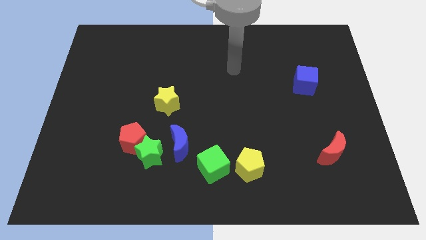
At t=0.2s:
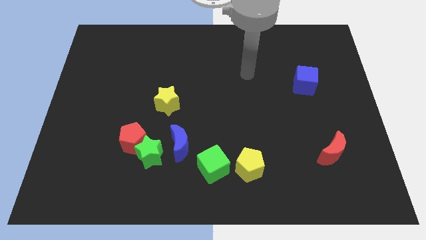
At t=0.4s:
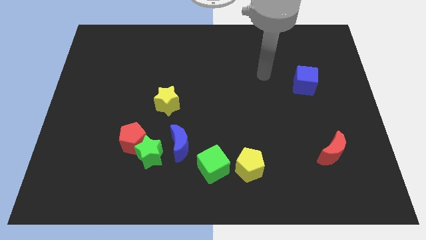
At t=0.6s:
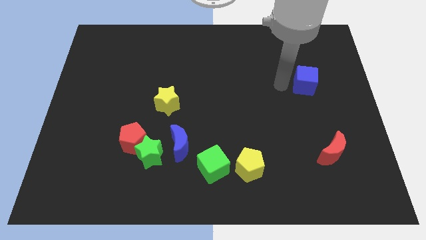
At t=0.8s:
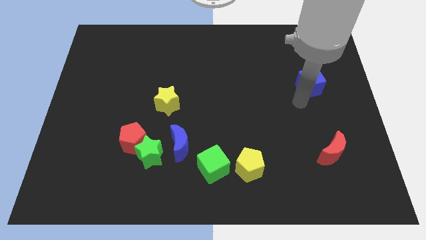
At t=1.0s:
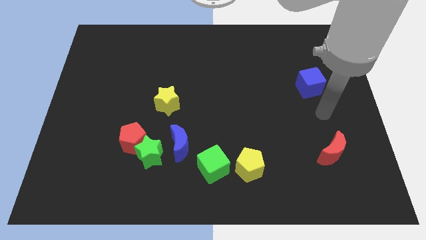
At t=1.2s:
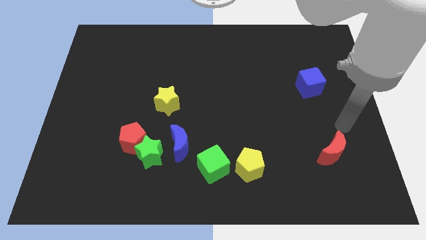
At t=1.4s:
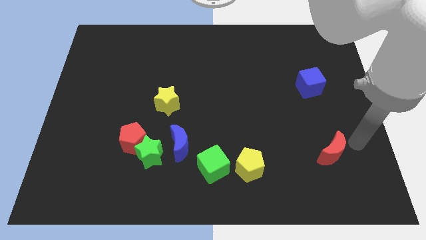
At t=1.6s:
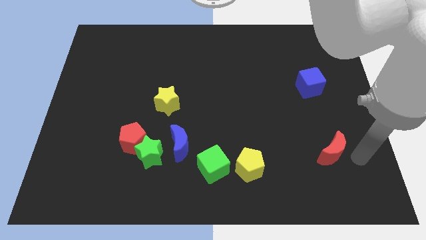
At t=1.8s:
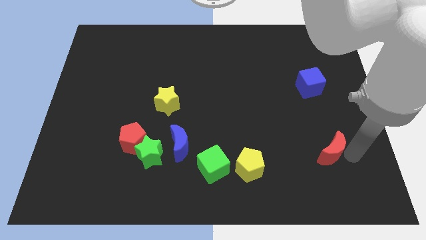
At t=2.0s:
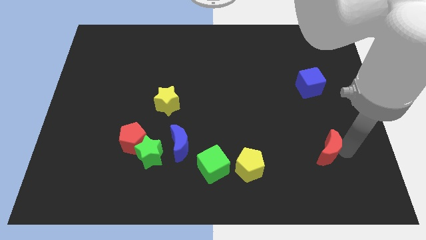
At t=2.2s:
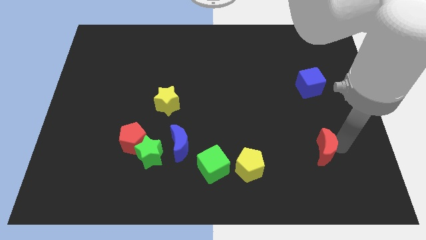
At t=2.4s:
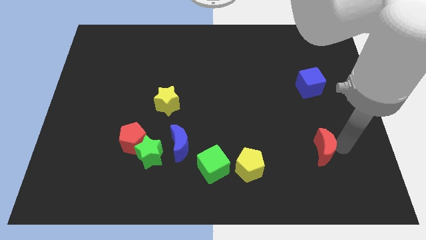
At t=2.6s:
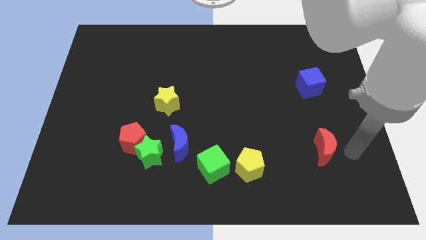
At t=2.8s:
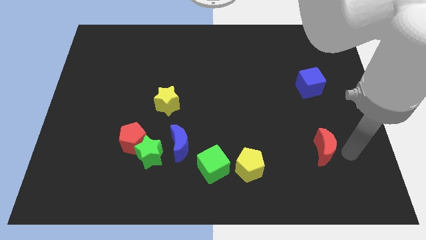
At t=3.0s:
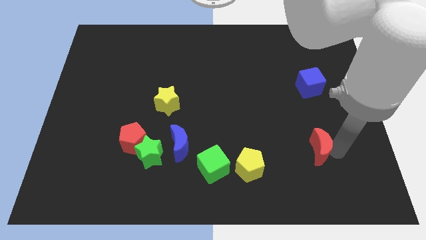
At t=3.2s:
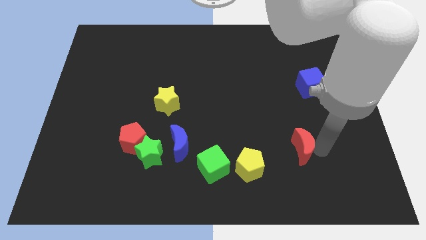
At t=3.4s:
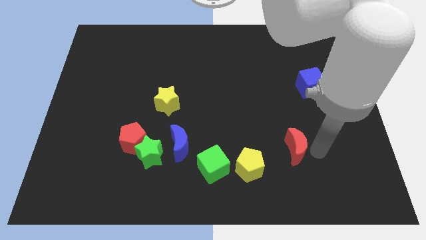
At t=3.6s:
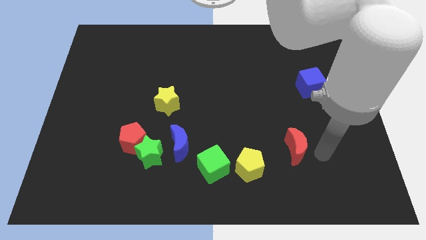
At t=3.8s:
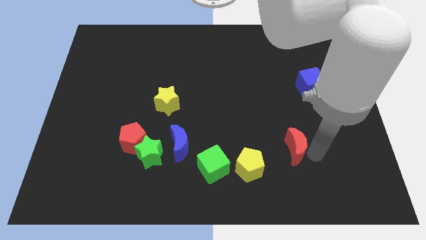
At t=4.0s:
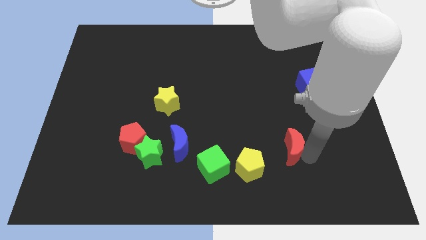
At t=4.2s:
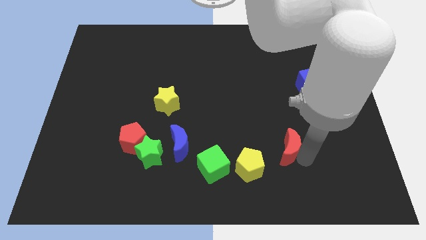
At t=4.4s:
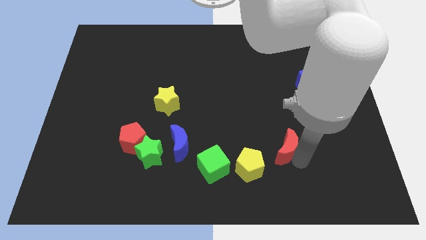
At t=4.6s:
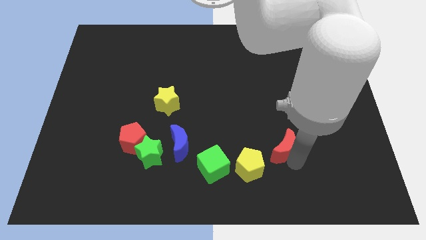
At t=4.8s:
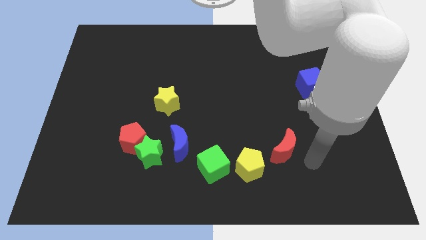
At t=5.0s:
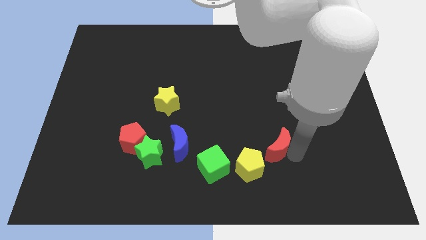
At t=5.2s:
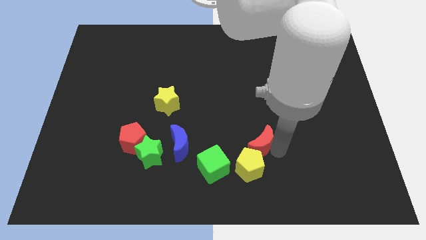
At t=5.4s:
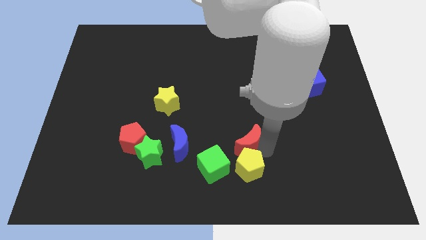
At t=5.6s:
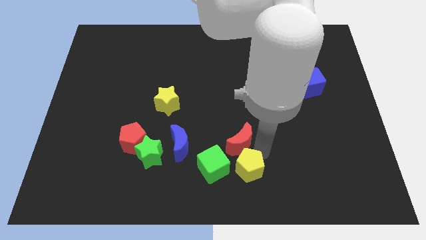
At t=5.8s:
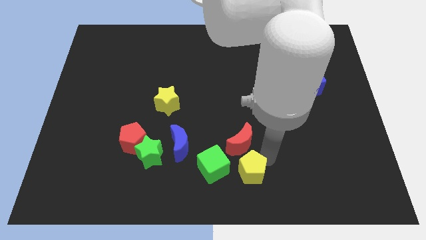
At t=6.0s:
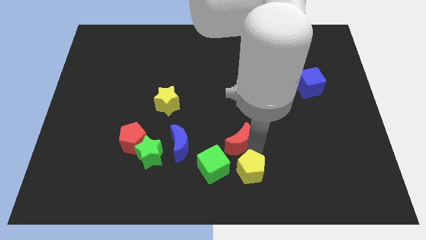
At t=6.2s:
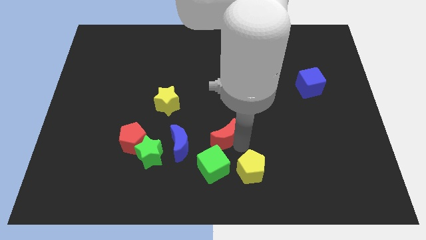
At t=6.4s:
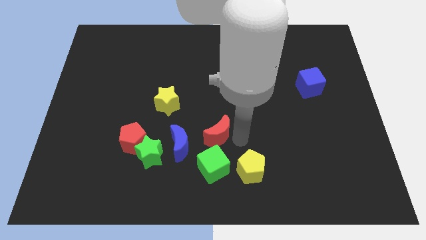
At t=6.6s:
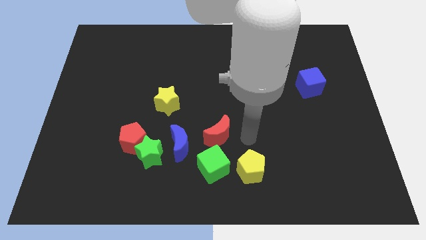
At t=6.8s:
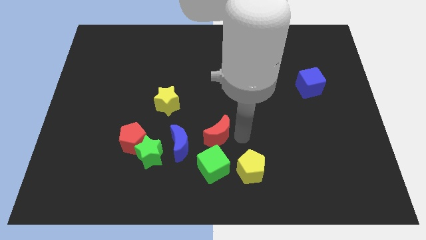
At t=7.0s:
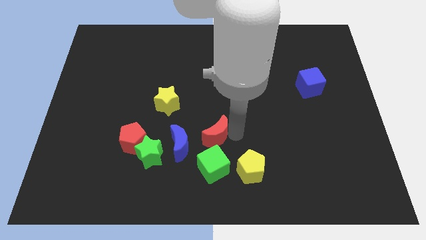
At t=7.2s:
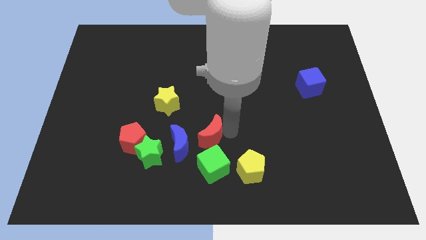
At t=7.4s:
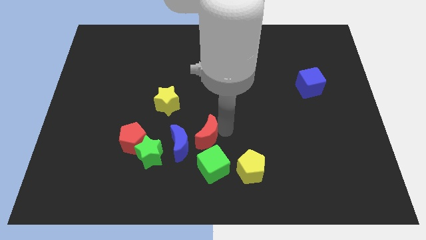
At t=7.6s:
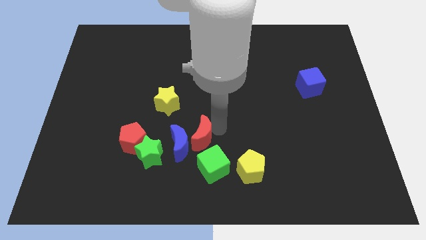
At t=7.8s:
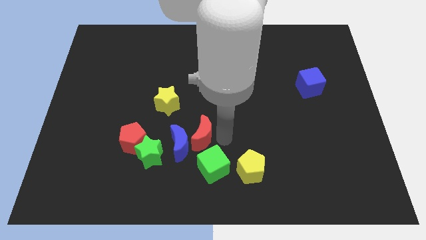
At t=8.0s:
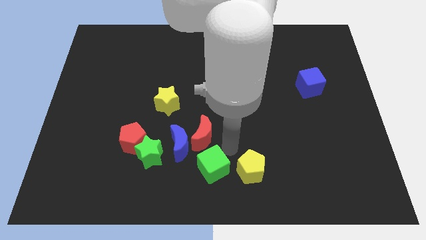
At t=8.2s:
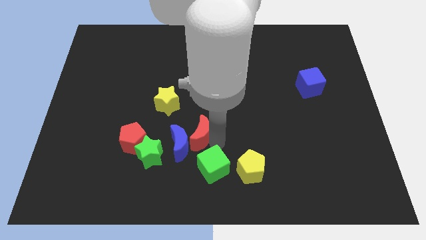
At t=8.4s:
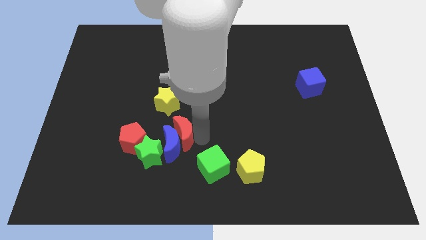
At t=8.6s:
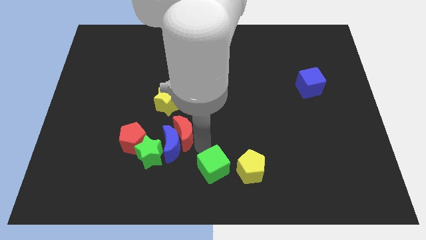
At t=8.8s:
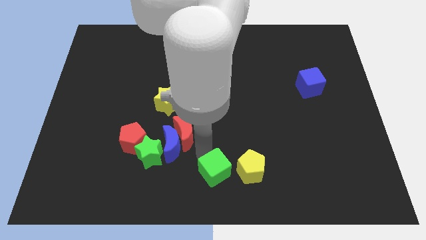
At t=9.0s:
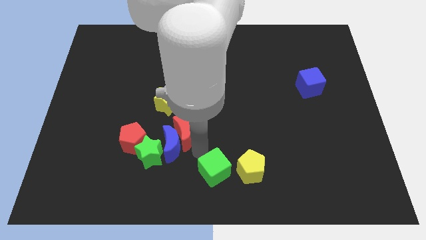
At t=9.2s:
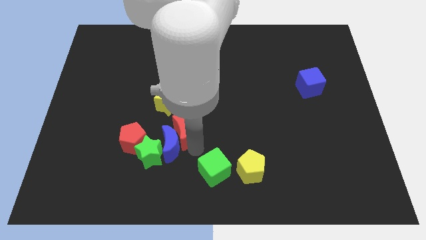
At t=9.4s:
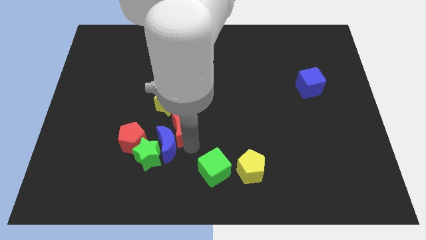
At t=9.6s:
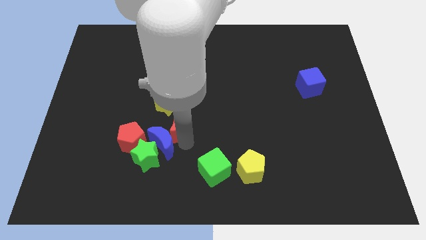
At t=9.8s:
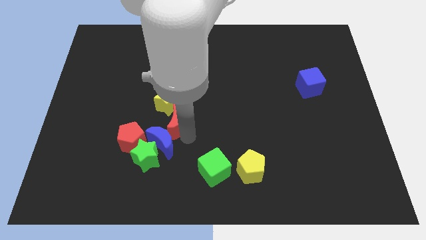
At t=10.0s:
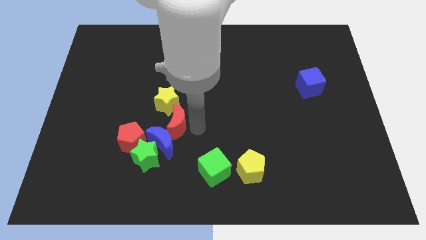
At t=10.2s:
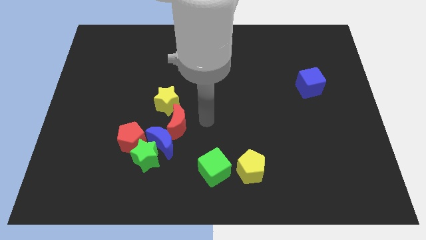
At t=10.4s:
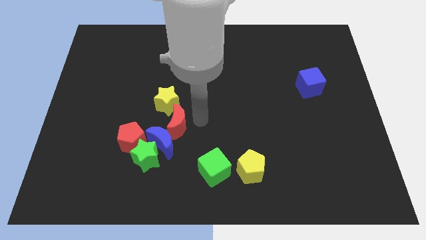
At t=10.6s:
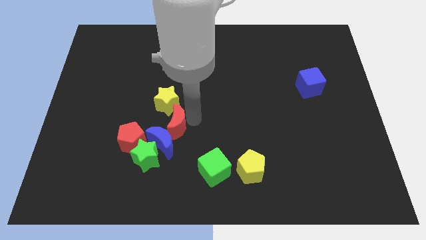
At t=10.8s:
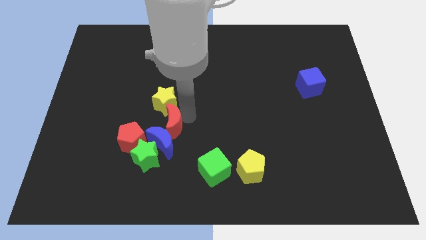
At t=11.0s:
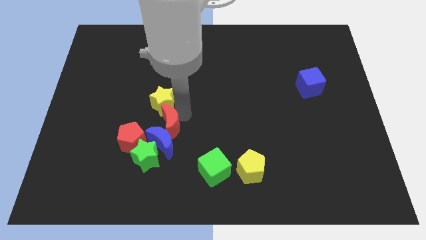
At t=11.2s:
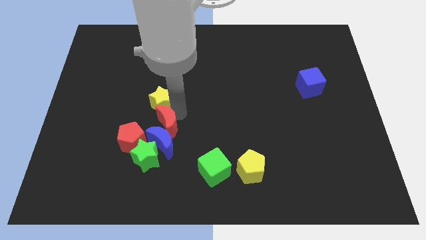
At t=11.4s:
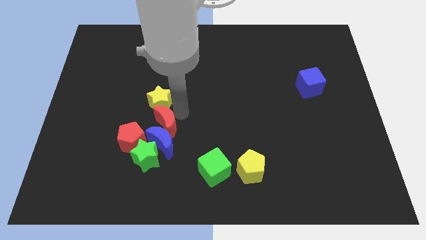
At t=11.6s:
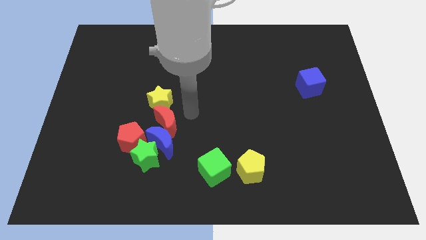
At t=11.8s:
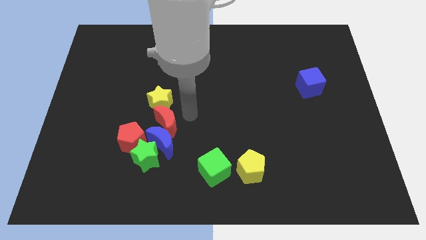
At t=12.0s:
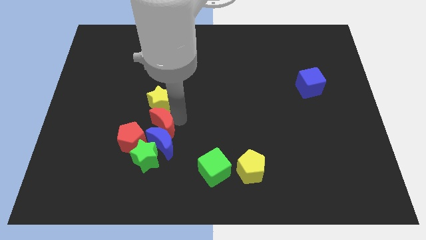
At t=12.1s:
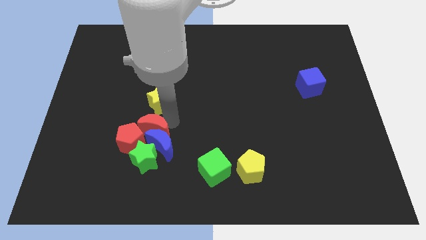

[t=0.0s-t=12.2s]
slide the red moon close to the red pentagon
